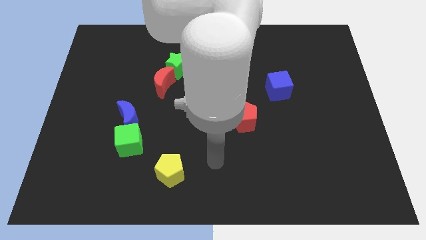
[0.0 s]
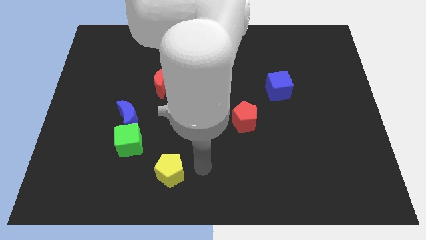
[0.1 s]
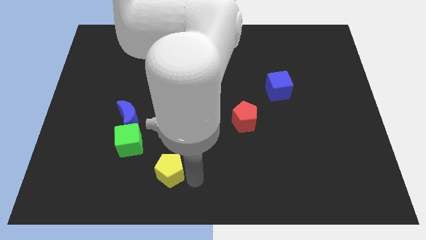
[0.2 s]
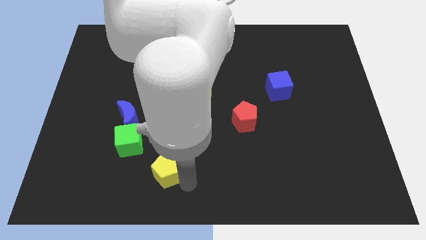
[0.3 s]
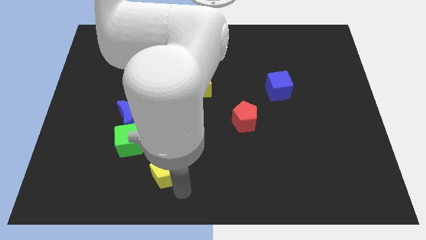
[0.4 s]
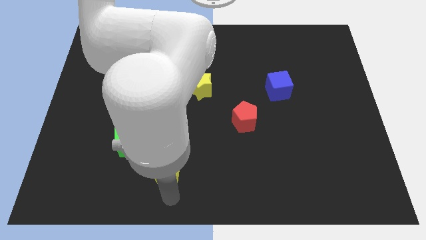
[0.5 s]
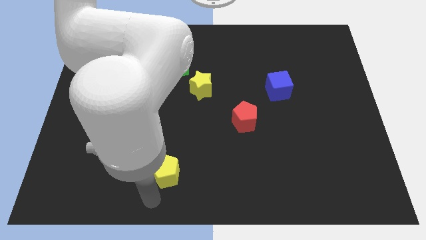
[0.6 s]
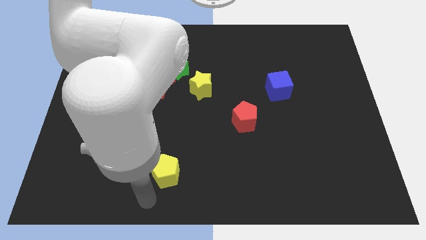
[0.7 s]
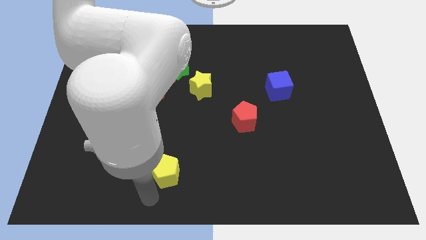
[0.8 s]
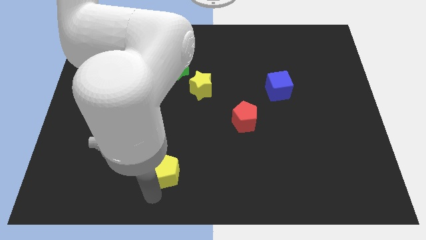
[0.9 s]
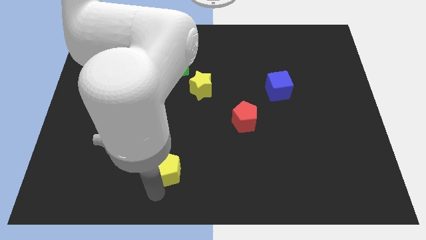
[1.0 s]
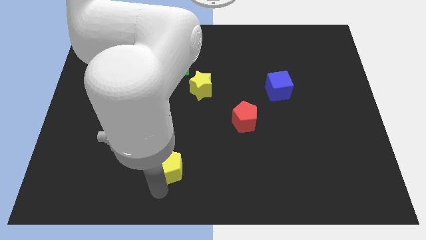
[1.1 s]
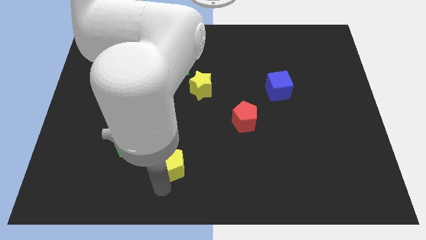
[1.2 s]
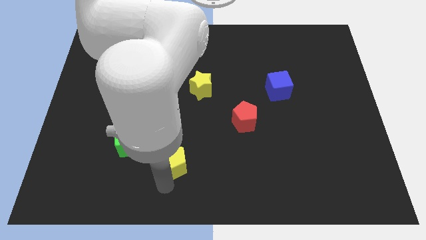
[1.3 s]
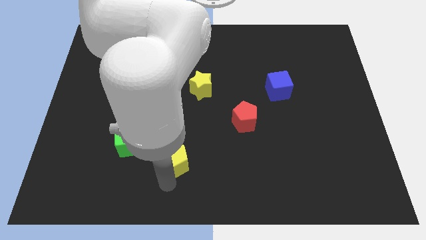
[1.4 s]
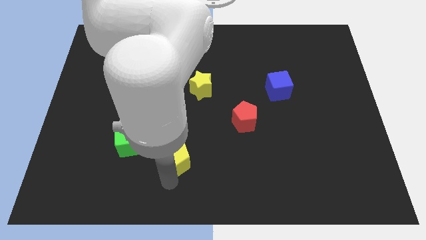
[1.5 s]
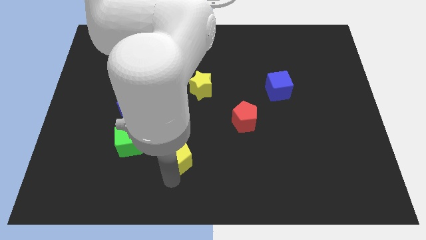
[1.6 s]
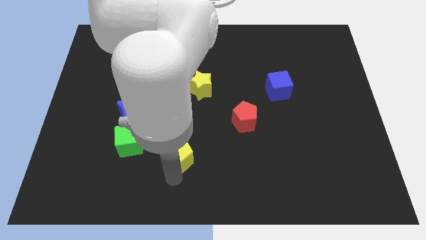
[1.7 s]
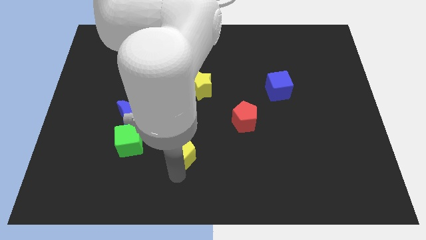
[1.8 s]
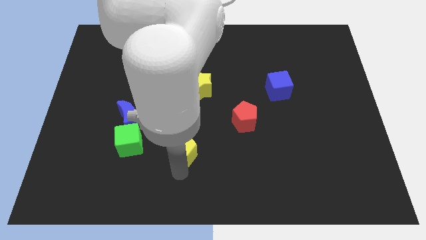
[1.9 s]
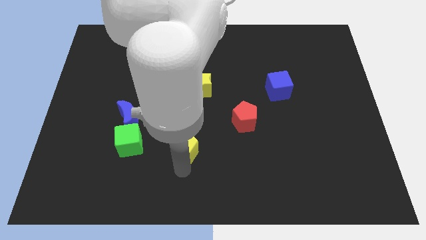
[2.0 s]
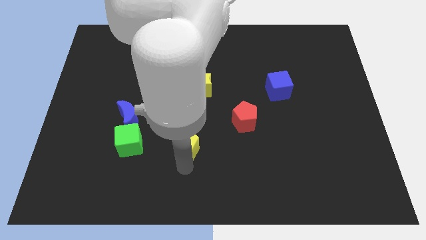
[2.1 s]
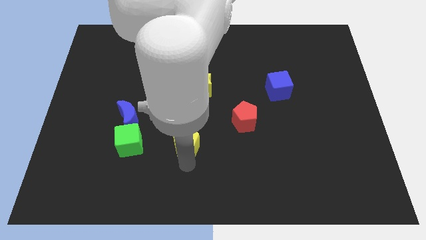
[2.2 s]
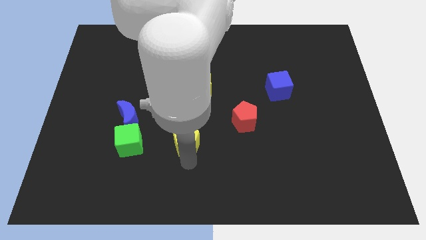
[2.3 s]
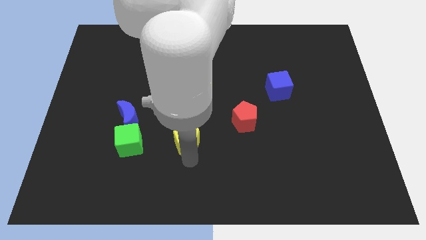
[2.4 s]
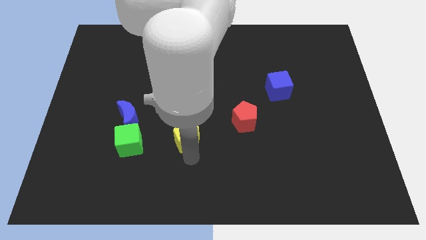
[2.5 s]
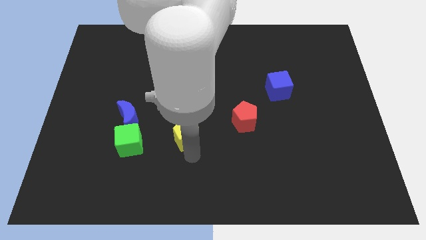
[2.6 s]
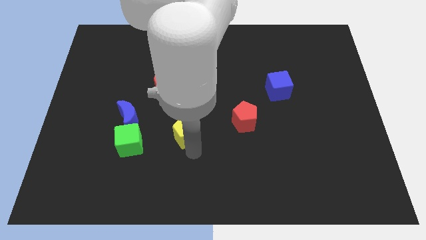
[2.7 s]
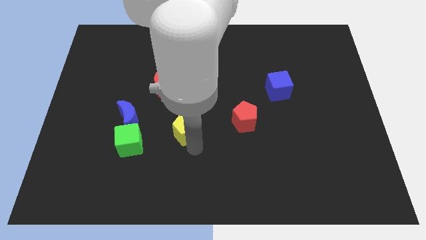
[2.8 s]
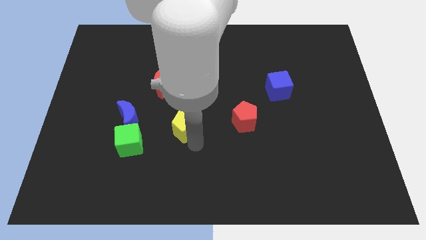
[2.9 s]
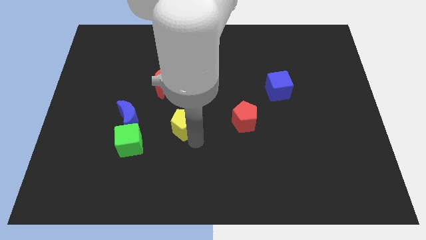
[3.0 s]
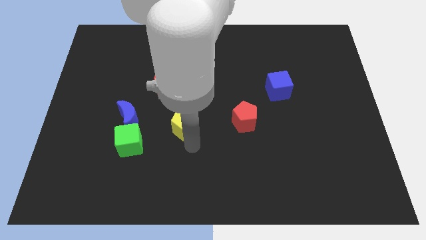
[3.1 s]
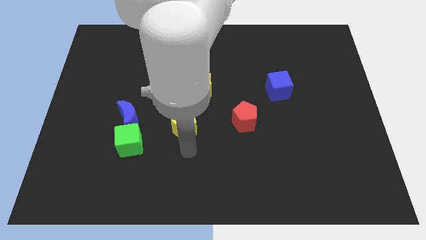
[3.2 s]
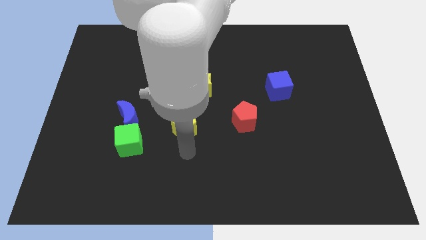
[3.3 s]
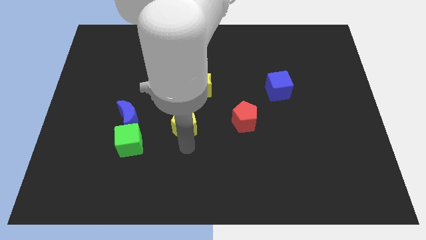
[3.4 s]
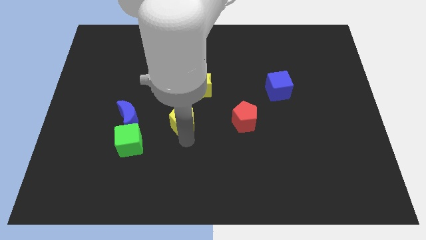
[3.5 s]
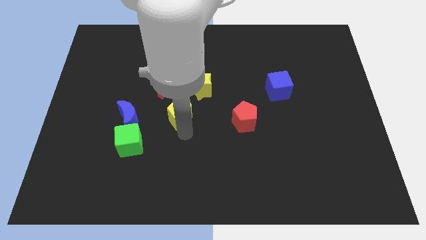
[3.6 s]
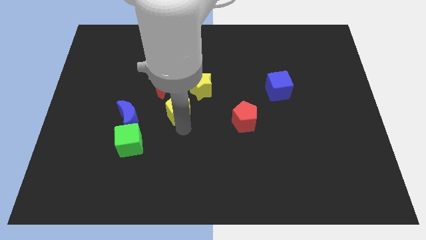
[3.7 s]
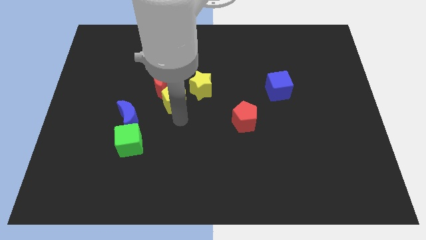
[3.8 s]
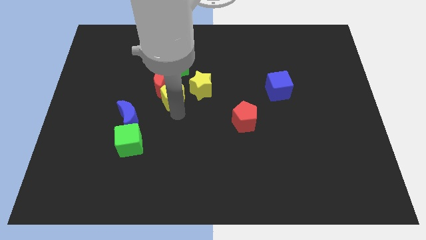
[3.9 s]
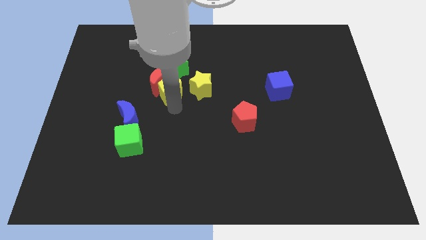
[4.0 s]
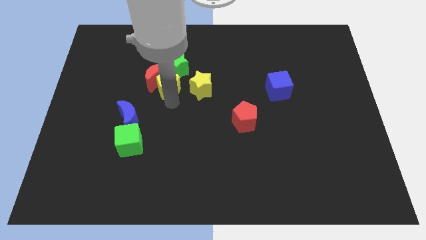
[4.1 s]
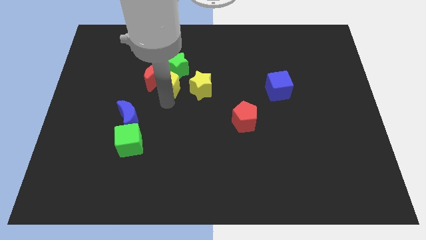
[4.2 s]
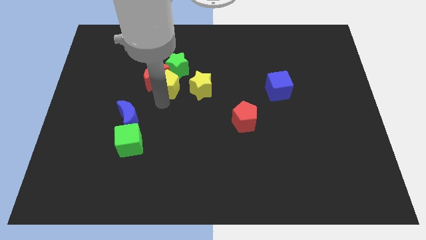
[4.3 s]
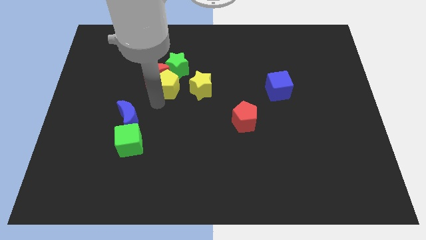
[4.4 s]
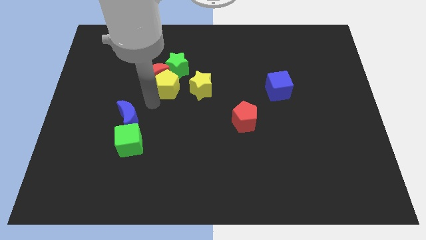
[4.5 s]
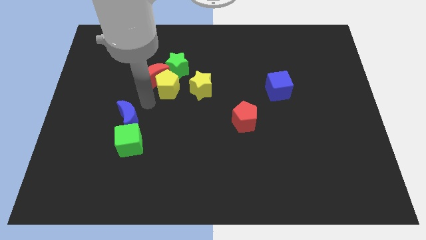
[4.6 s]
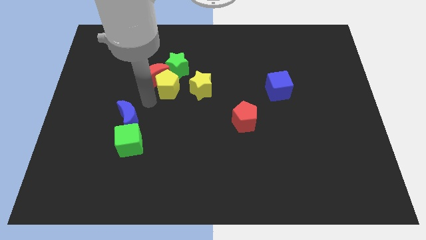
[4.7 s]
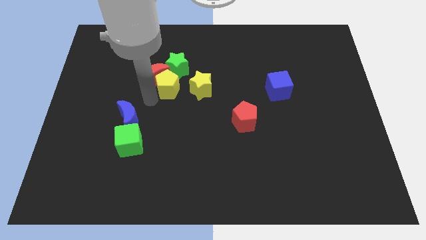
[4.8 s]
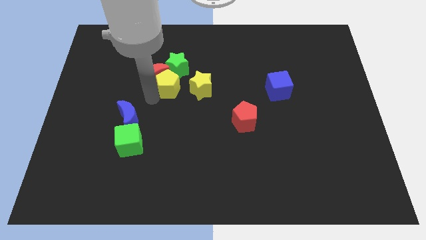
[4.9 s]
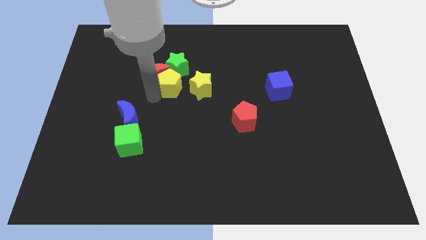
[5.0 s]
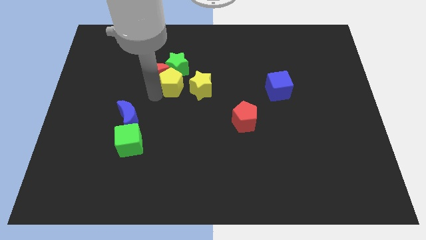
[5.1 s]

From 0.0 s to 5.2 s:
put the yellow pentagon next to the green star

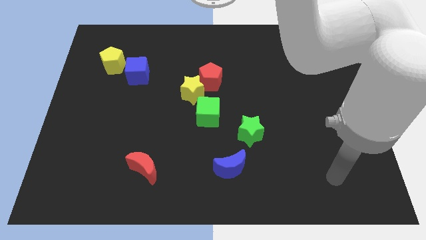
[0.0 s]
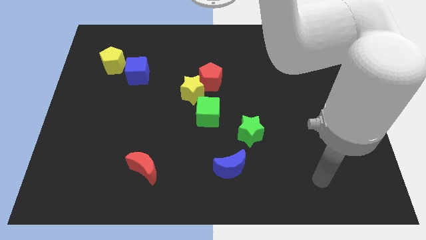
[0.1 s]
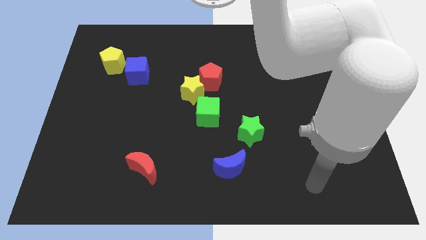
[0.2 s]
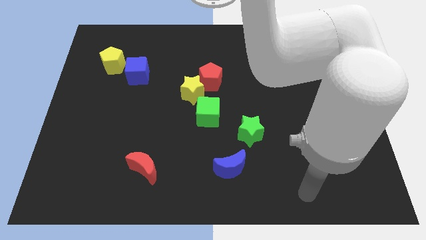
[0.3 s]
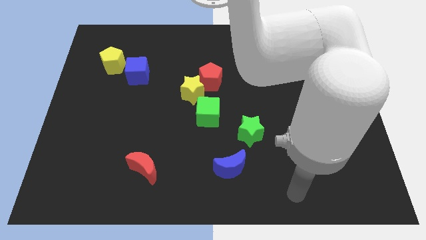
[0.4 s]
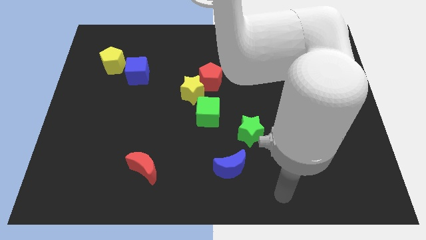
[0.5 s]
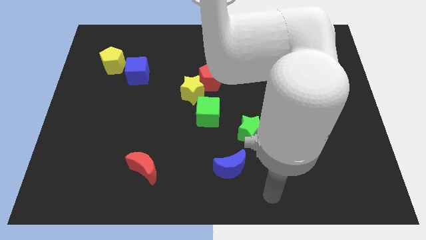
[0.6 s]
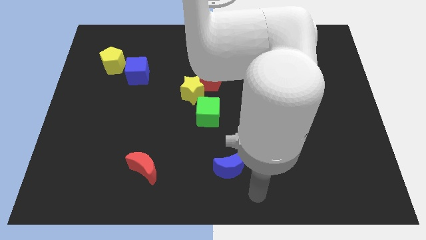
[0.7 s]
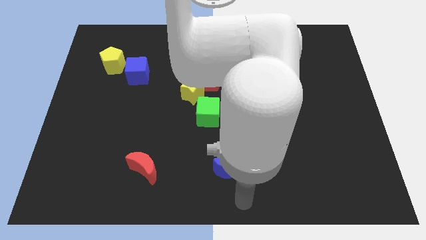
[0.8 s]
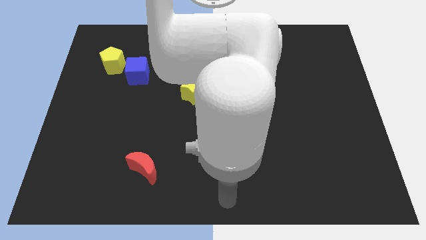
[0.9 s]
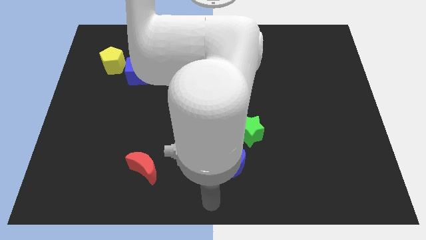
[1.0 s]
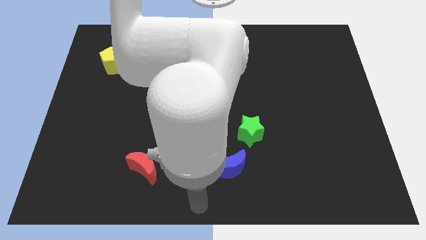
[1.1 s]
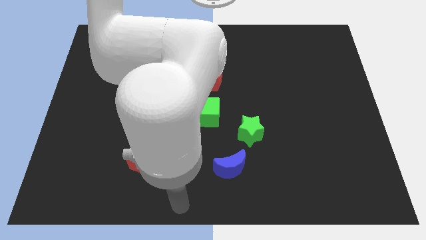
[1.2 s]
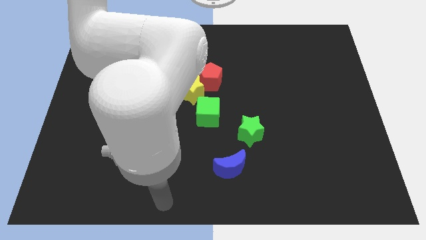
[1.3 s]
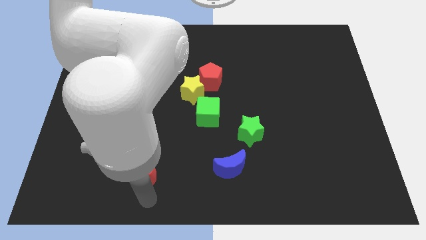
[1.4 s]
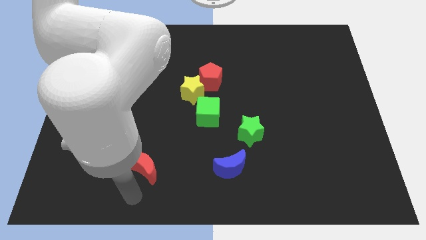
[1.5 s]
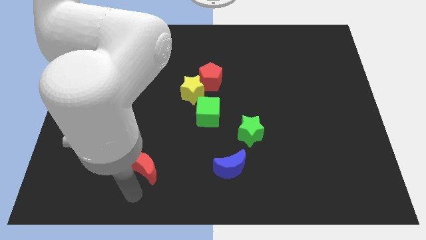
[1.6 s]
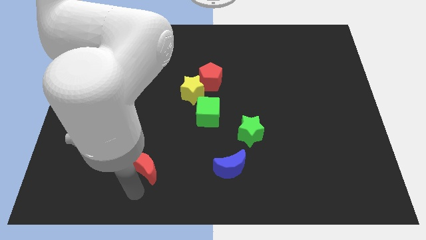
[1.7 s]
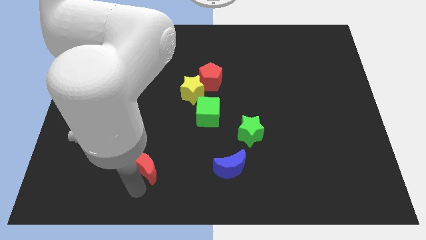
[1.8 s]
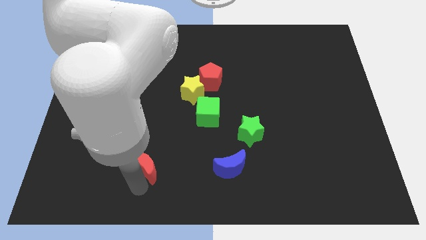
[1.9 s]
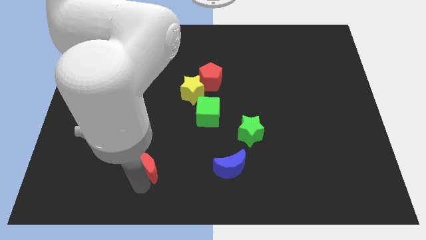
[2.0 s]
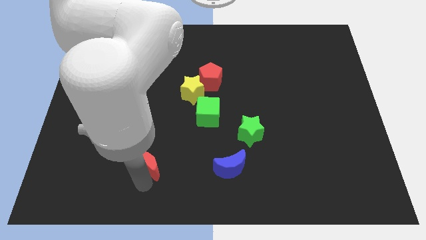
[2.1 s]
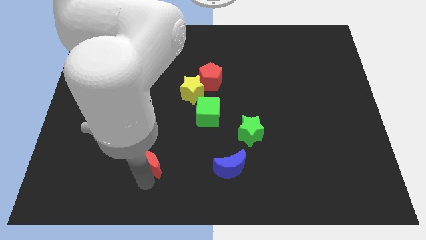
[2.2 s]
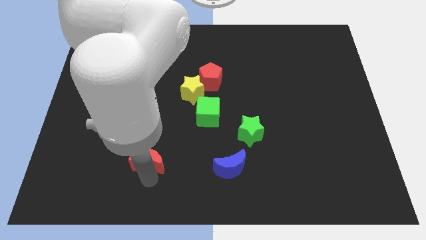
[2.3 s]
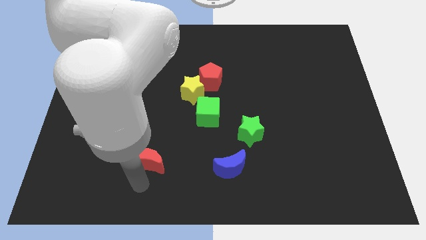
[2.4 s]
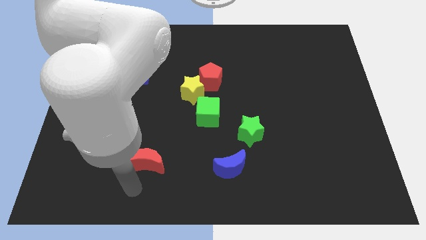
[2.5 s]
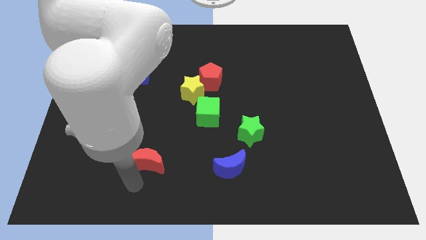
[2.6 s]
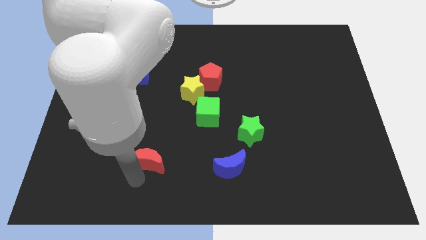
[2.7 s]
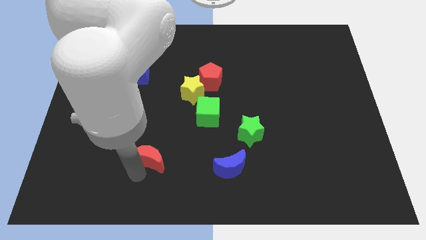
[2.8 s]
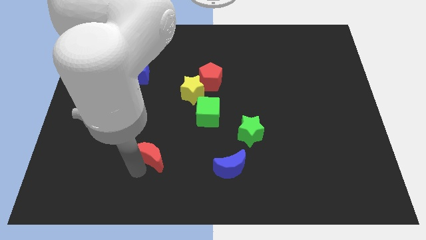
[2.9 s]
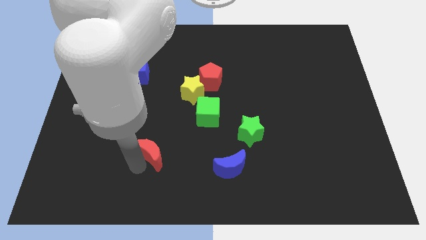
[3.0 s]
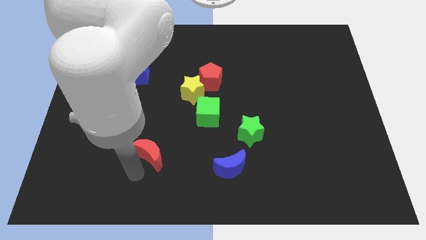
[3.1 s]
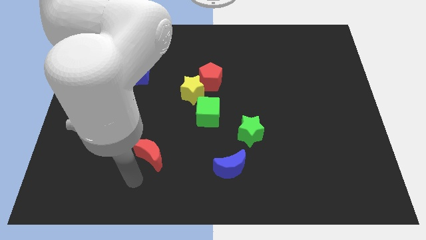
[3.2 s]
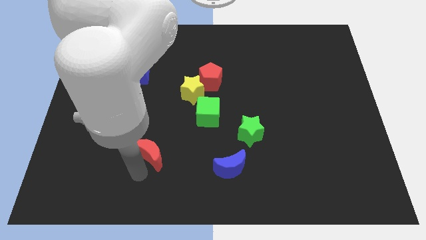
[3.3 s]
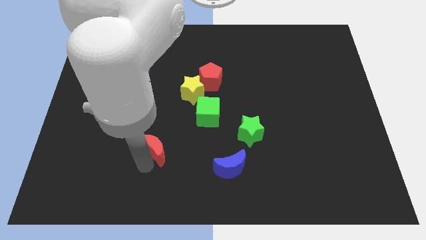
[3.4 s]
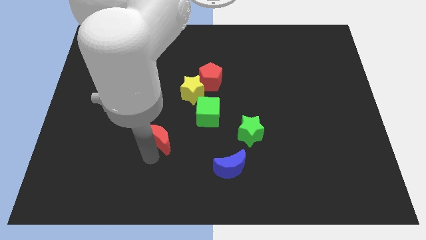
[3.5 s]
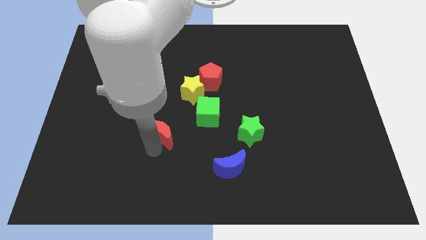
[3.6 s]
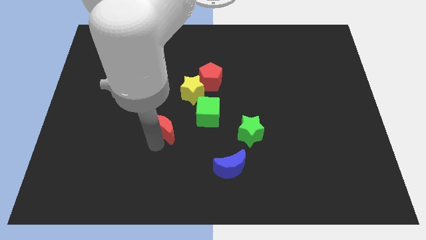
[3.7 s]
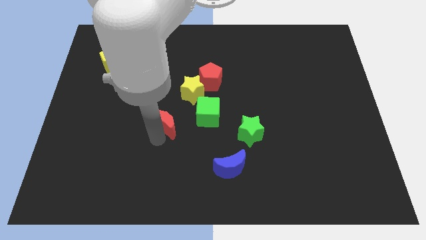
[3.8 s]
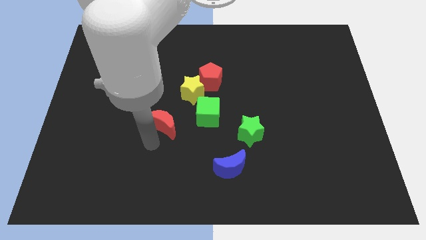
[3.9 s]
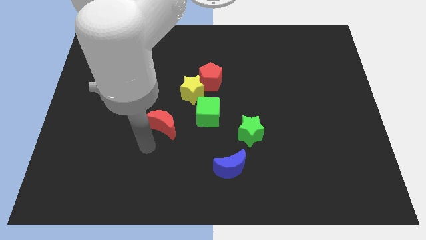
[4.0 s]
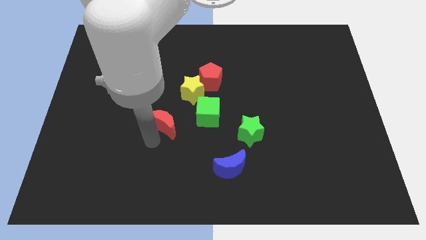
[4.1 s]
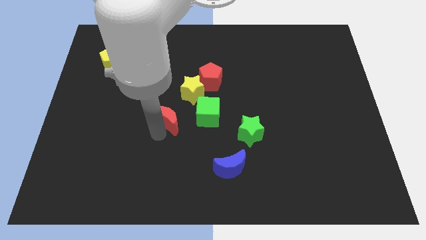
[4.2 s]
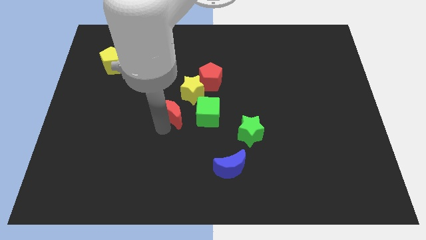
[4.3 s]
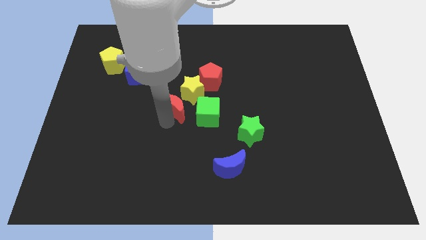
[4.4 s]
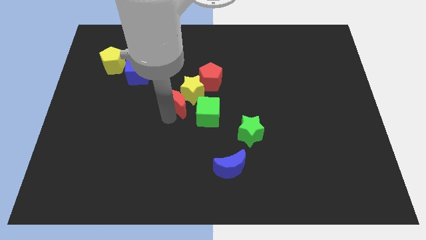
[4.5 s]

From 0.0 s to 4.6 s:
push the red moon next to the yellow star
